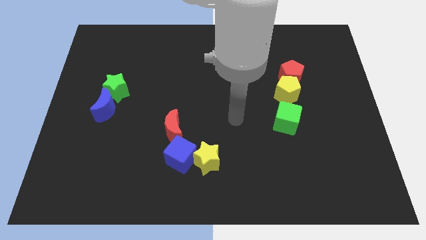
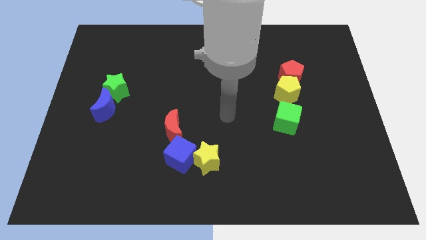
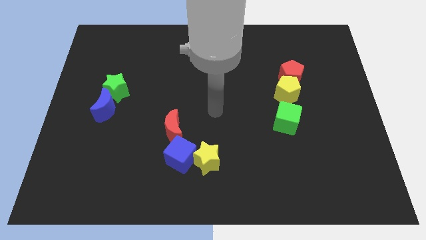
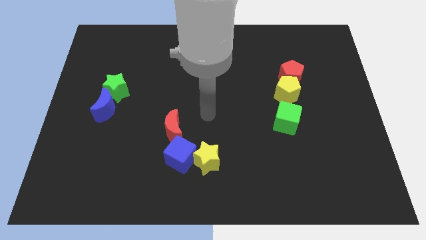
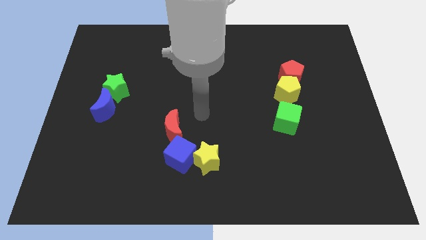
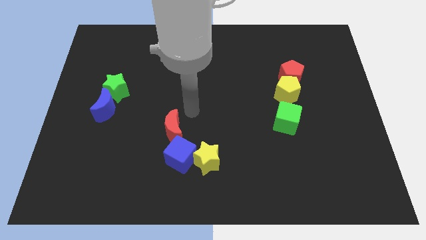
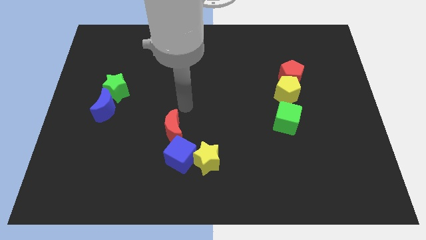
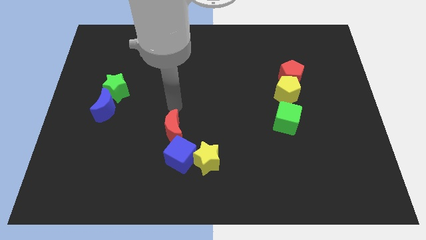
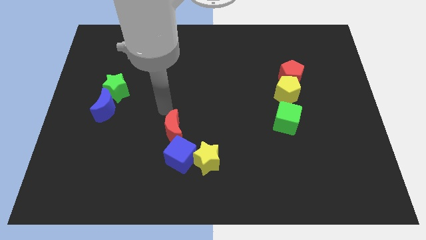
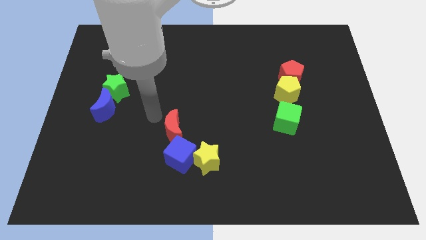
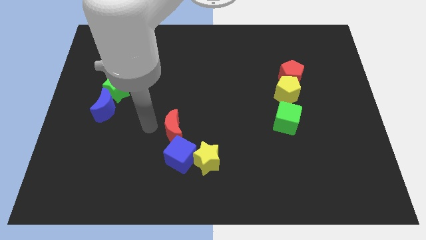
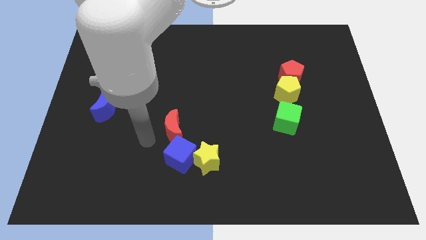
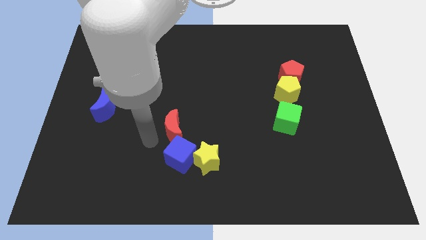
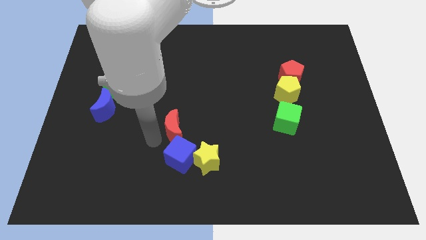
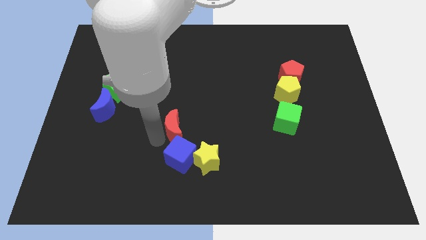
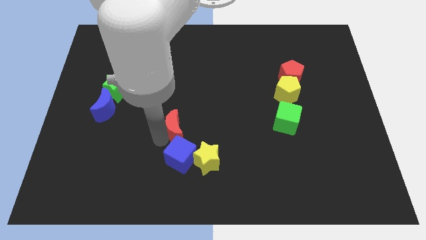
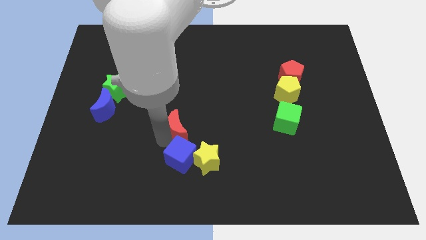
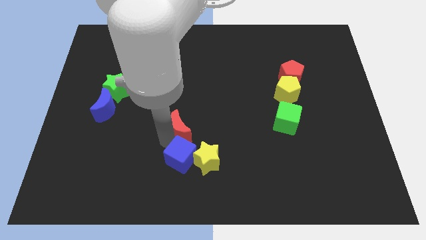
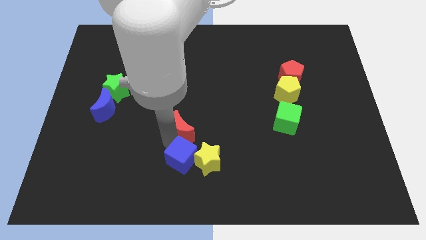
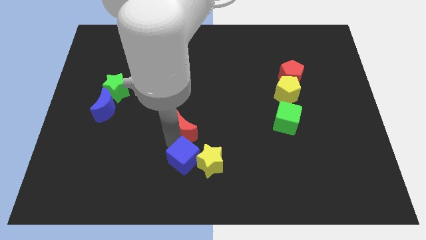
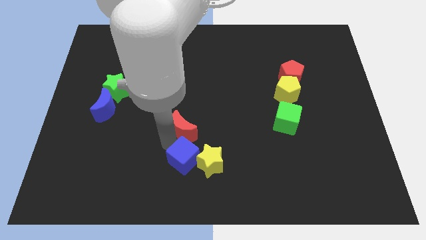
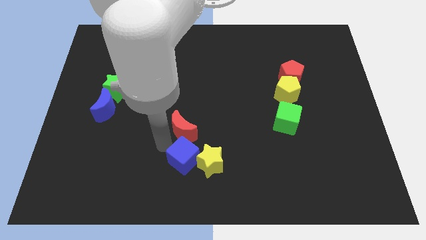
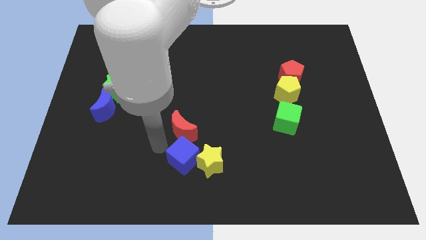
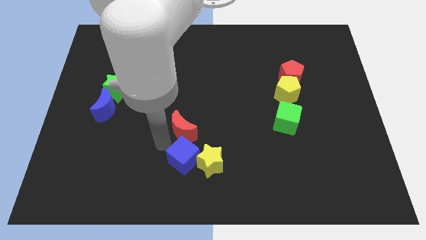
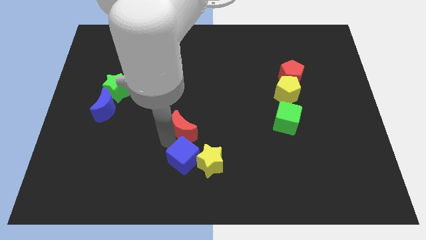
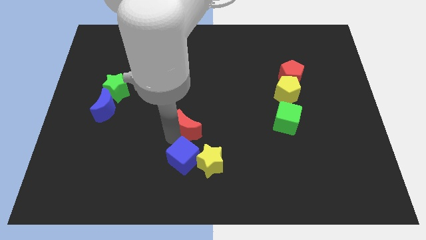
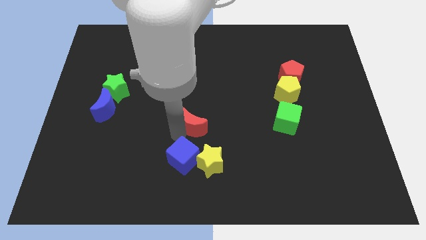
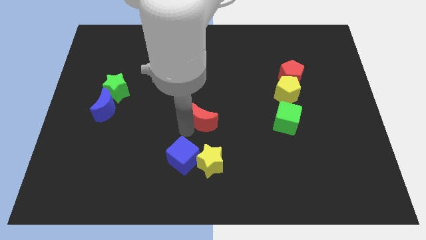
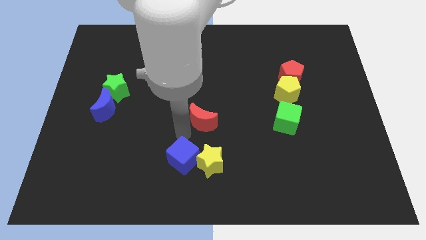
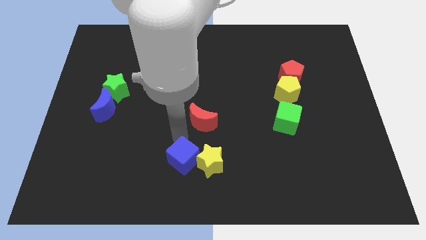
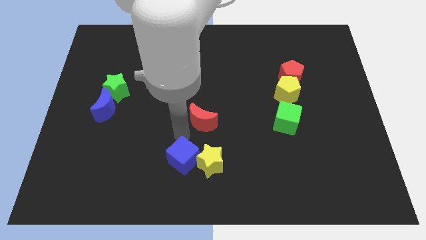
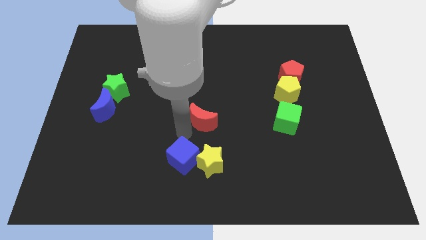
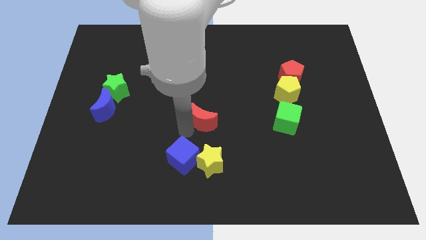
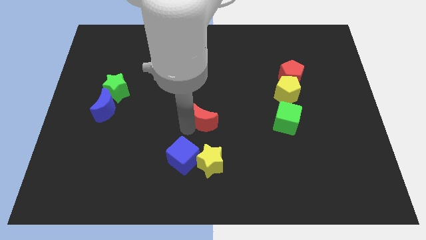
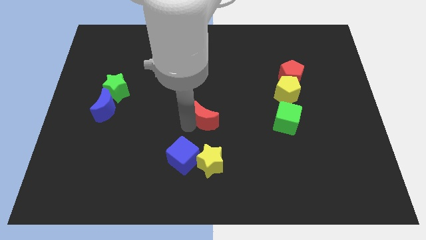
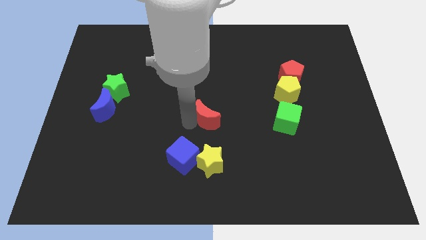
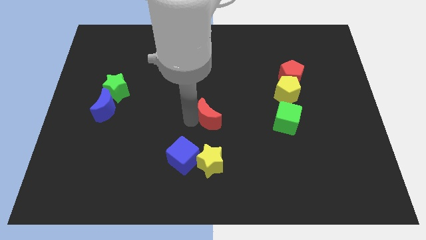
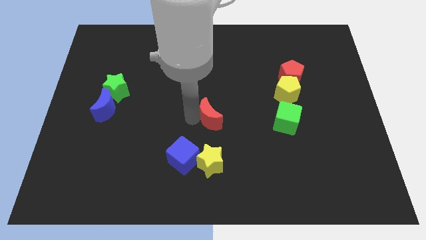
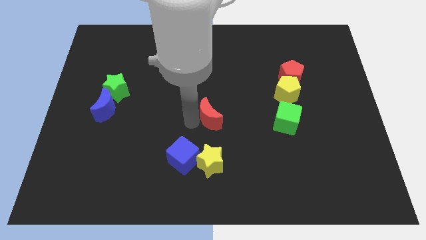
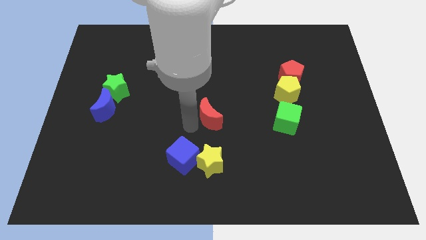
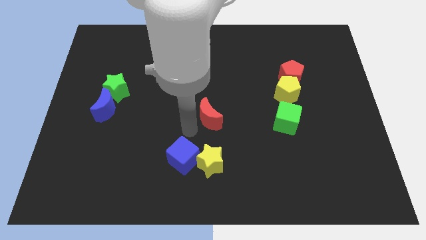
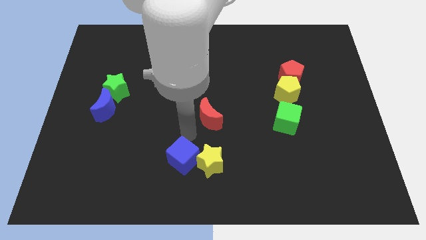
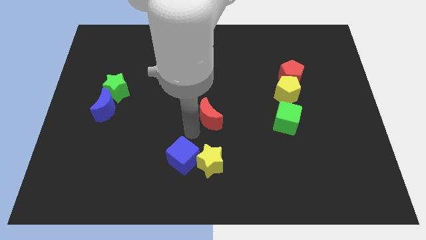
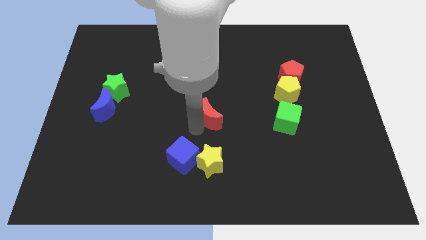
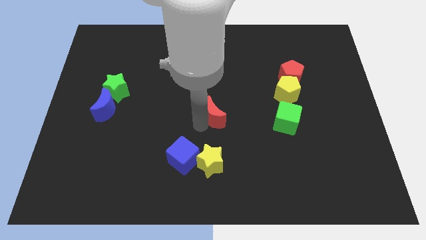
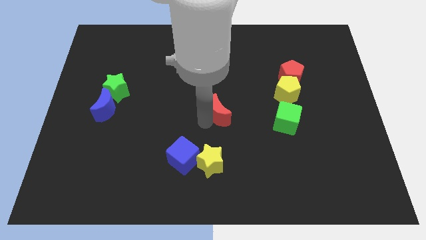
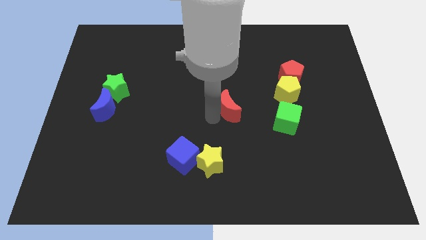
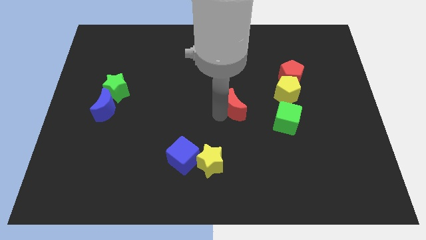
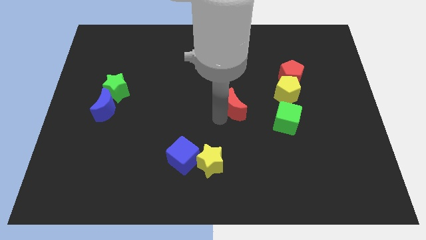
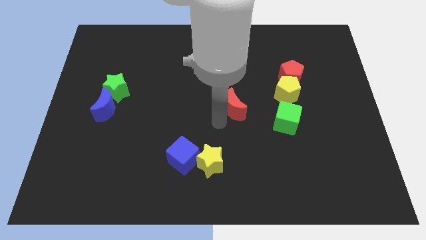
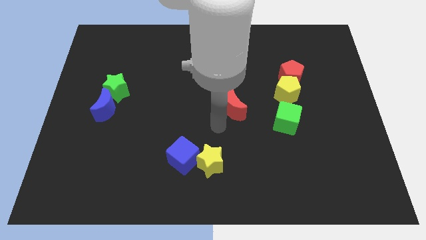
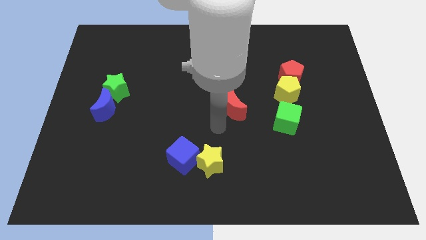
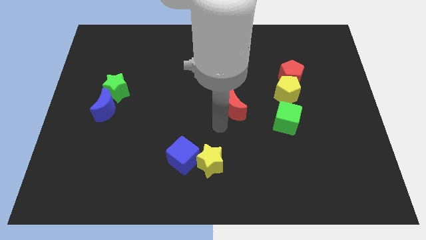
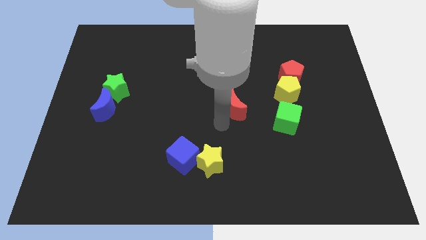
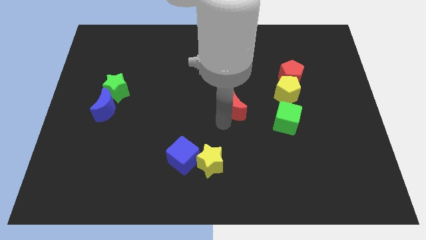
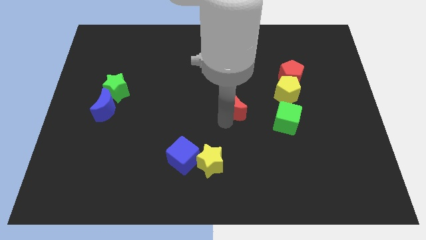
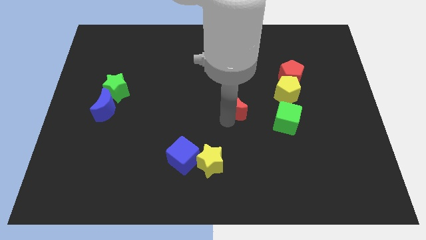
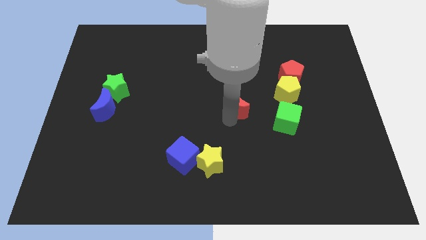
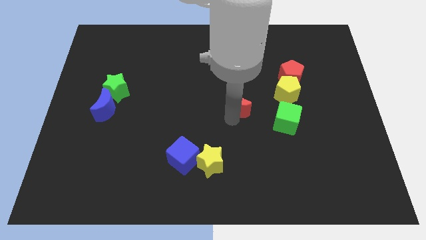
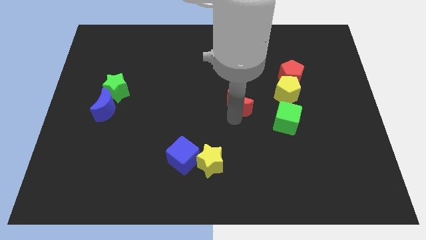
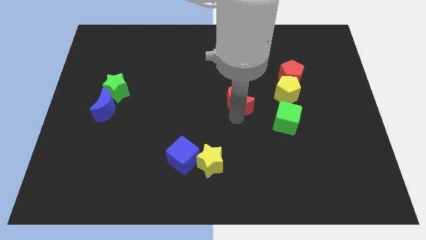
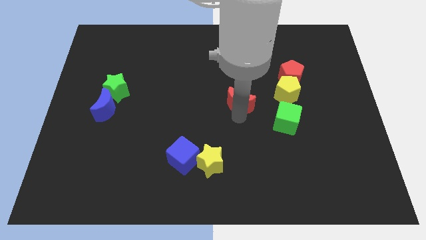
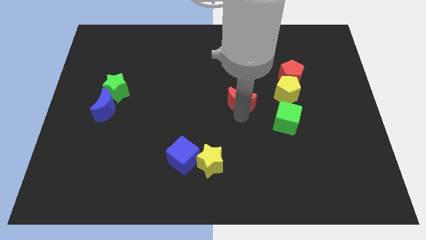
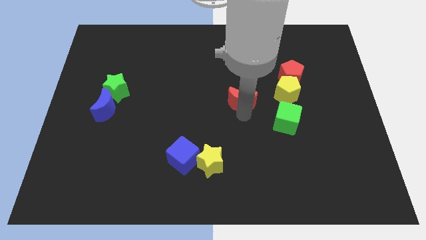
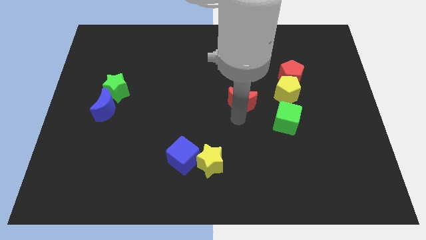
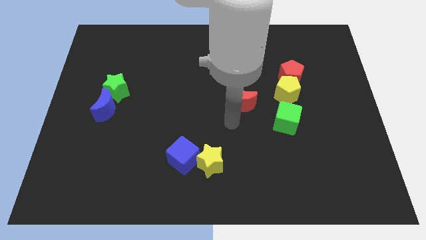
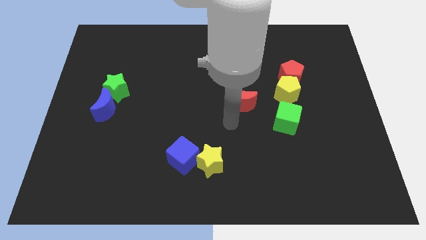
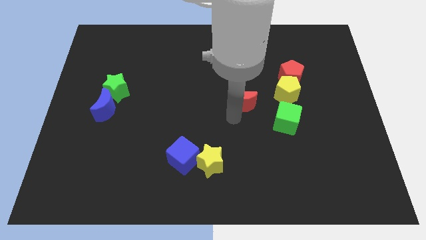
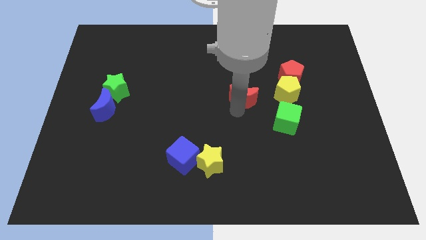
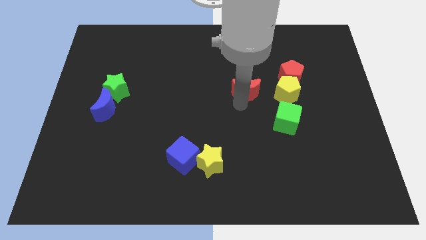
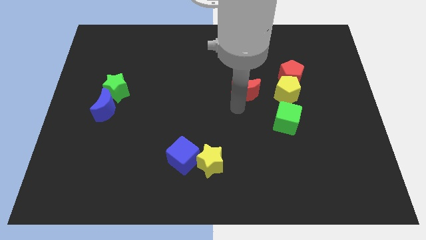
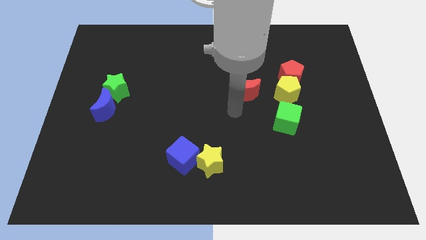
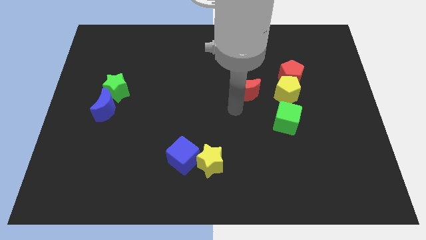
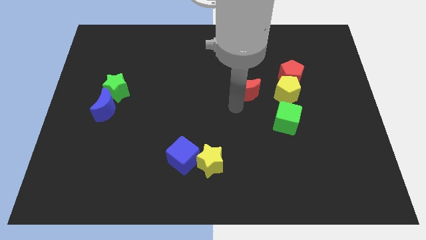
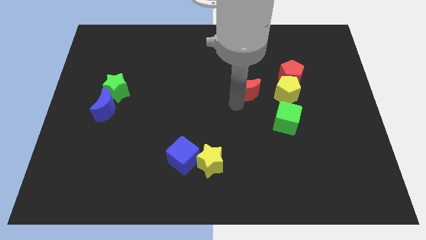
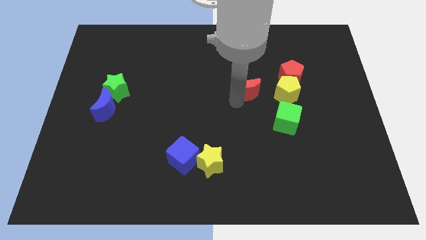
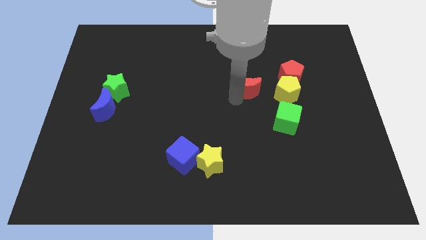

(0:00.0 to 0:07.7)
move the red moon up and right
